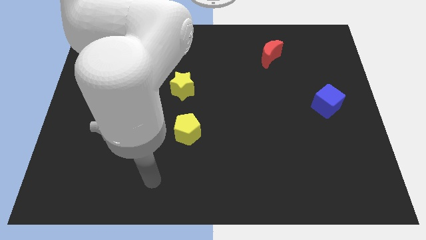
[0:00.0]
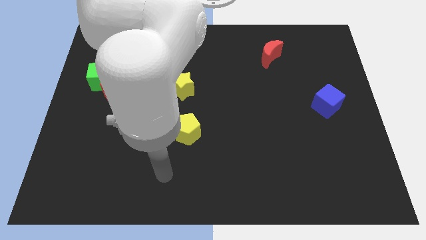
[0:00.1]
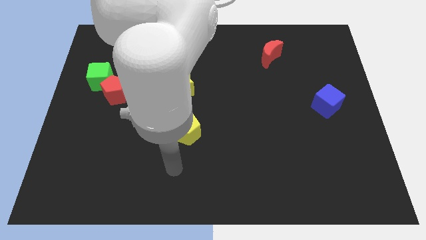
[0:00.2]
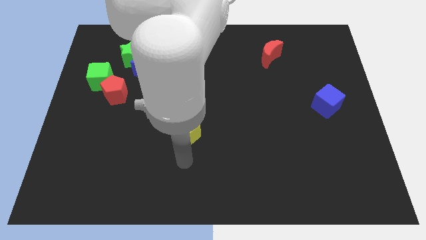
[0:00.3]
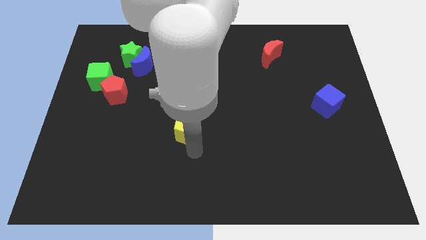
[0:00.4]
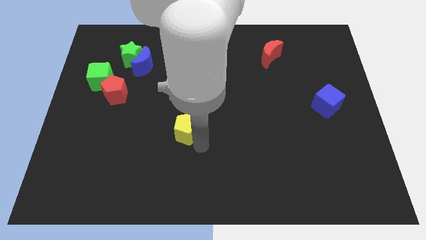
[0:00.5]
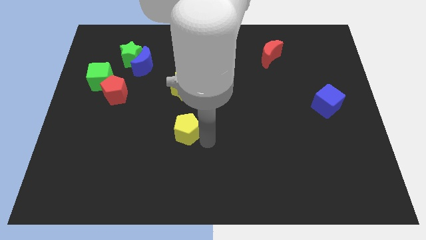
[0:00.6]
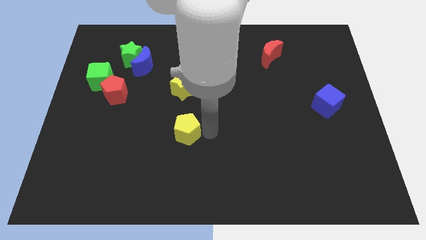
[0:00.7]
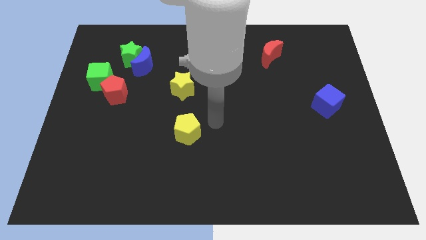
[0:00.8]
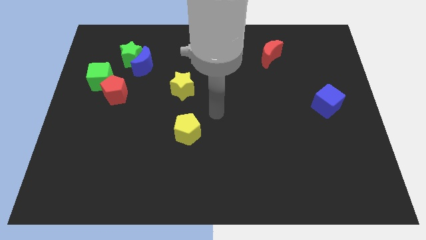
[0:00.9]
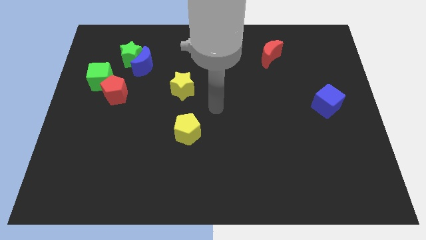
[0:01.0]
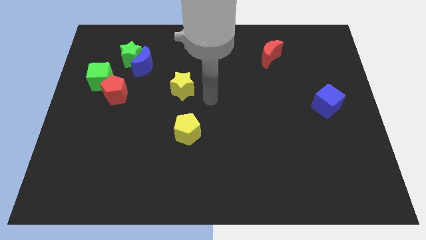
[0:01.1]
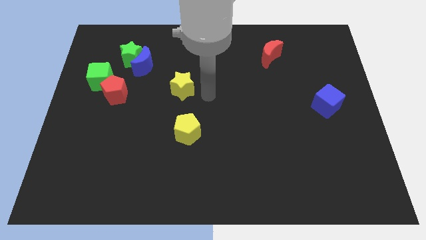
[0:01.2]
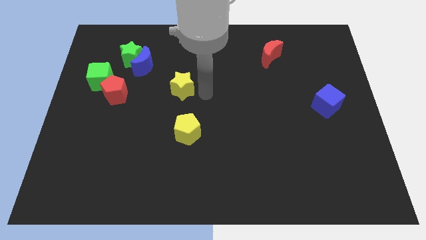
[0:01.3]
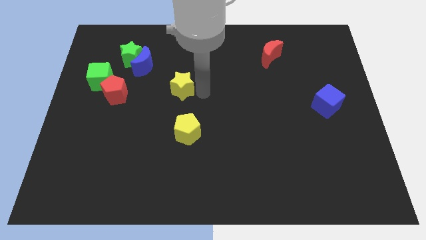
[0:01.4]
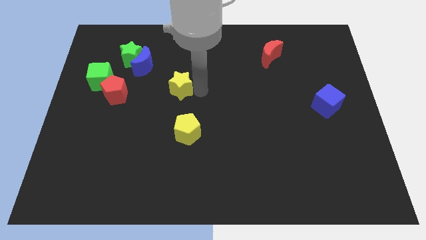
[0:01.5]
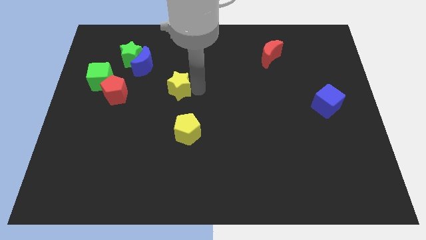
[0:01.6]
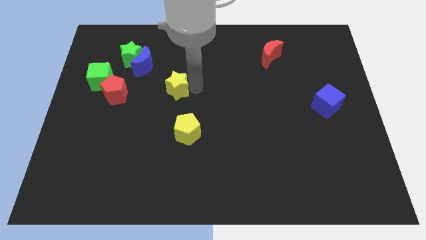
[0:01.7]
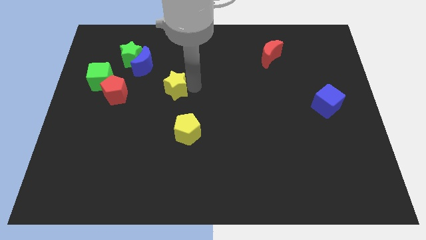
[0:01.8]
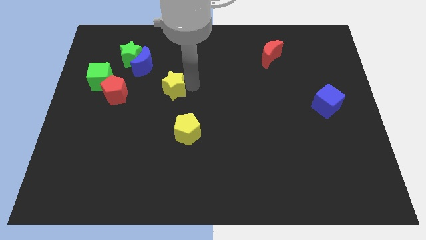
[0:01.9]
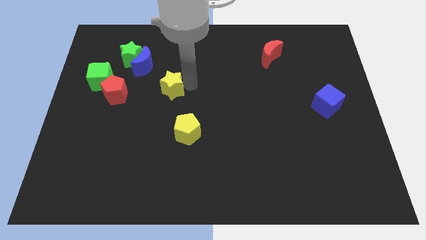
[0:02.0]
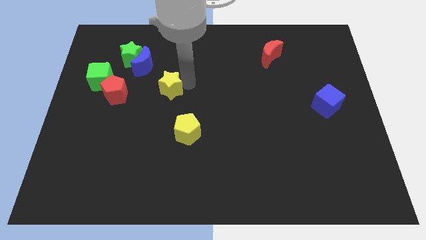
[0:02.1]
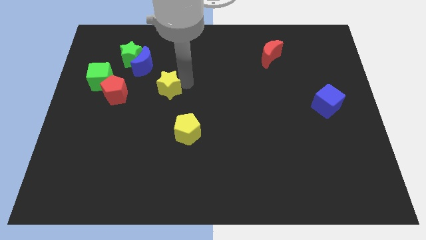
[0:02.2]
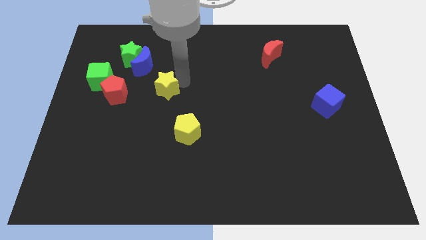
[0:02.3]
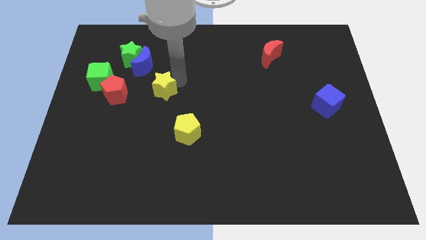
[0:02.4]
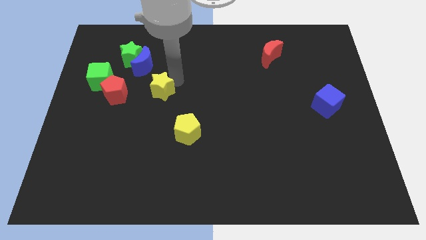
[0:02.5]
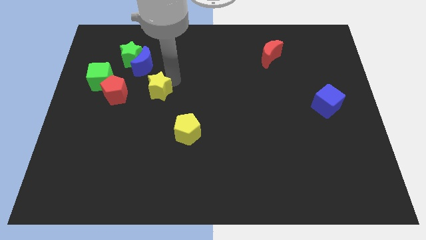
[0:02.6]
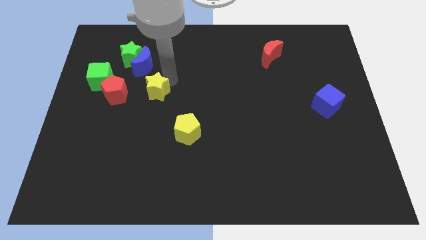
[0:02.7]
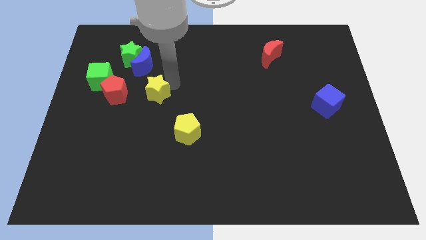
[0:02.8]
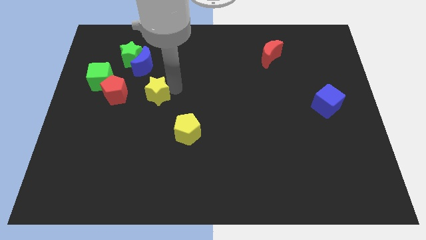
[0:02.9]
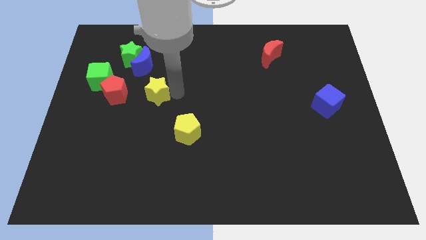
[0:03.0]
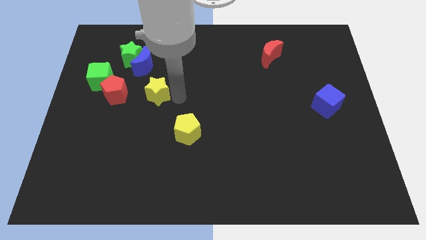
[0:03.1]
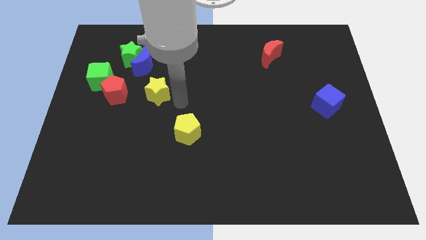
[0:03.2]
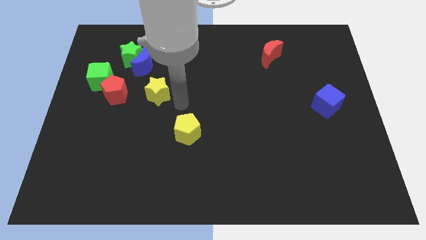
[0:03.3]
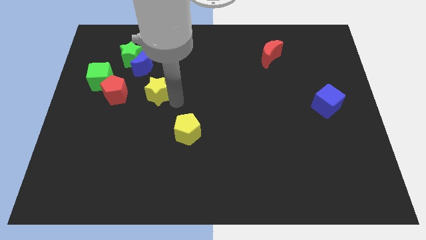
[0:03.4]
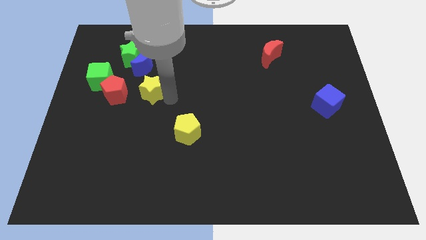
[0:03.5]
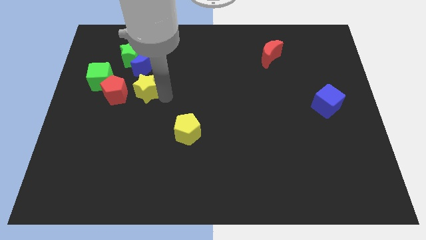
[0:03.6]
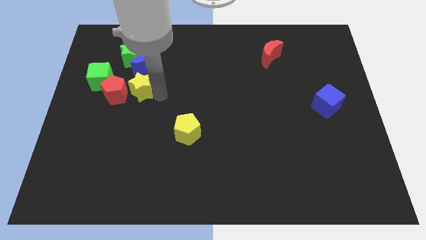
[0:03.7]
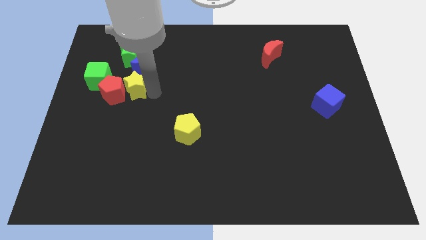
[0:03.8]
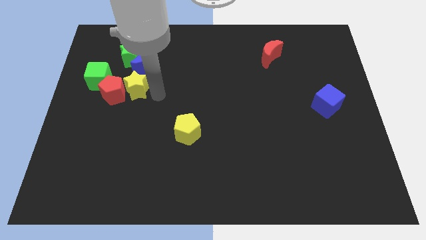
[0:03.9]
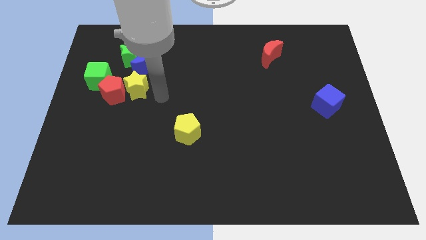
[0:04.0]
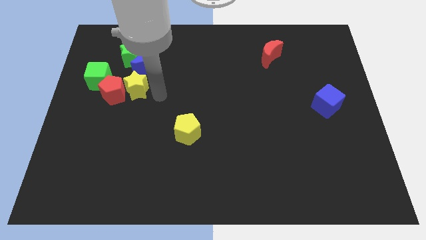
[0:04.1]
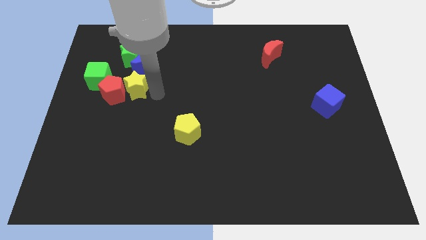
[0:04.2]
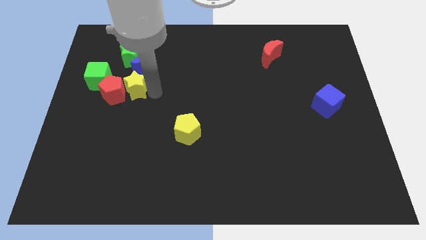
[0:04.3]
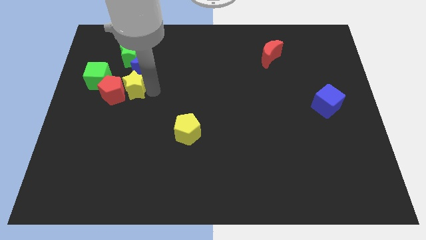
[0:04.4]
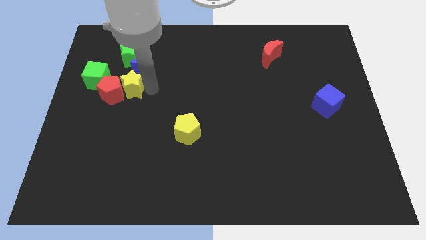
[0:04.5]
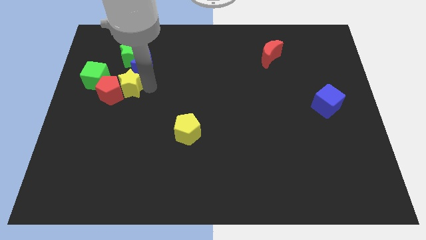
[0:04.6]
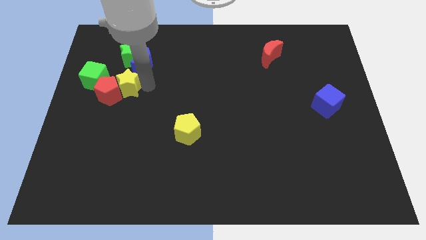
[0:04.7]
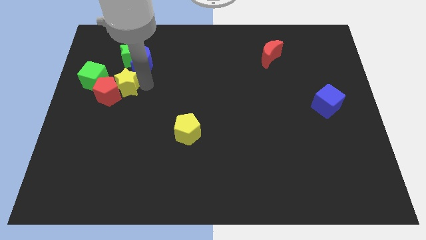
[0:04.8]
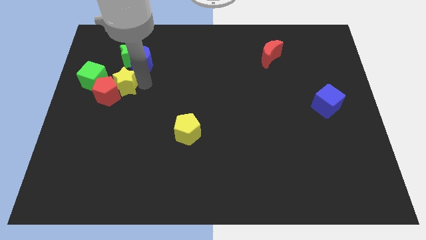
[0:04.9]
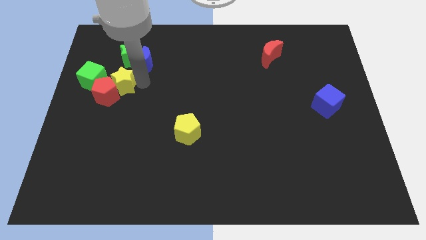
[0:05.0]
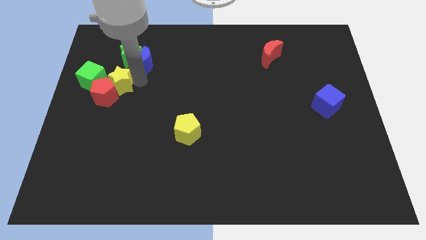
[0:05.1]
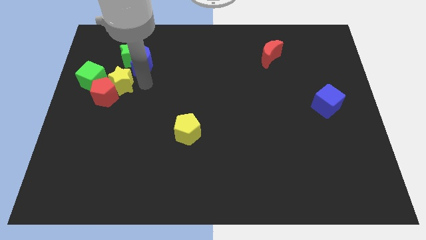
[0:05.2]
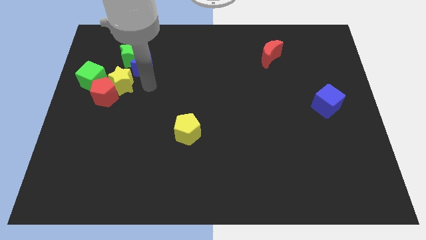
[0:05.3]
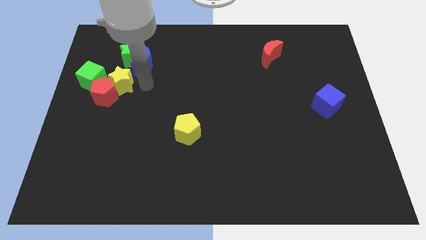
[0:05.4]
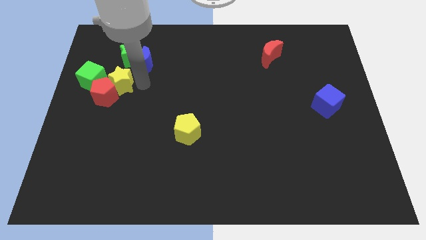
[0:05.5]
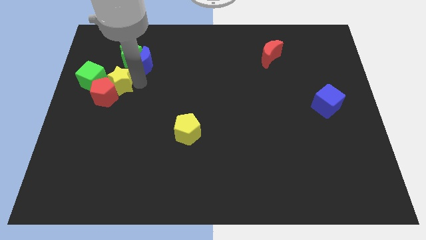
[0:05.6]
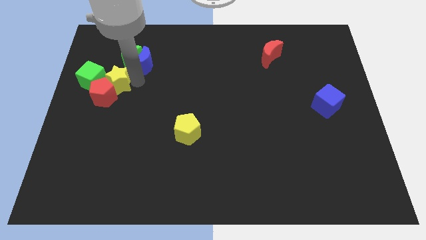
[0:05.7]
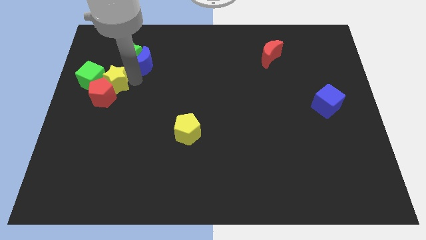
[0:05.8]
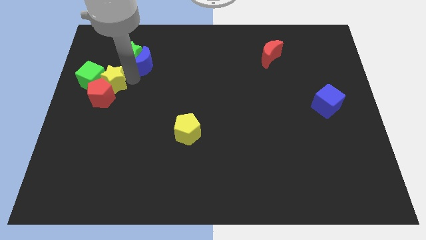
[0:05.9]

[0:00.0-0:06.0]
slide the yellow star towards the green cube

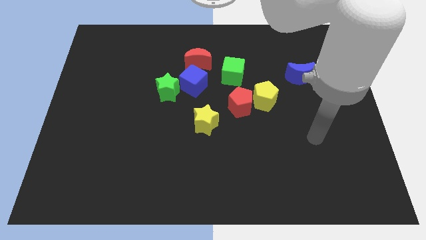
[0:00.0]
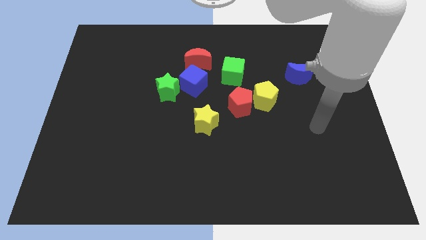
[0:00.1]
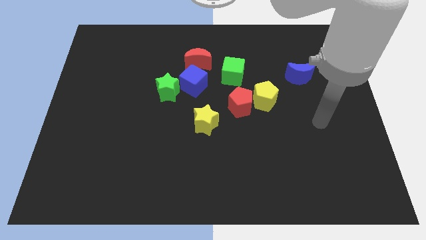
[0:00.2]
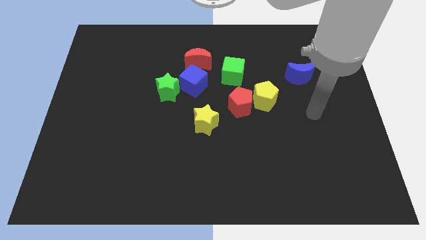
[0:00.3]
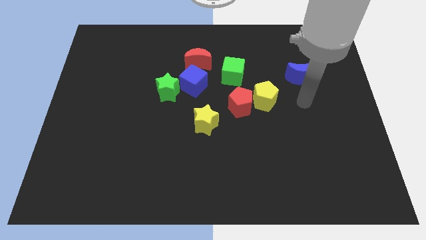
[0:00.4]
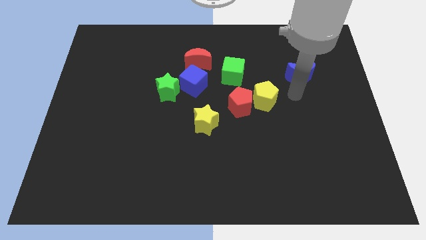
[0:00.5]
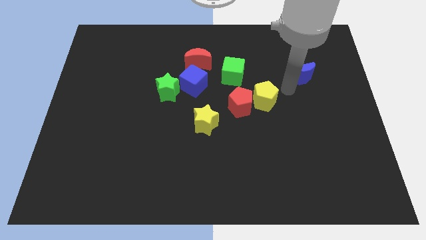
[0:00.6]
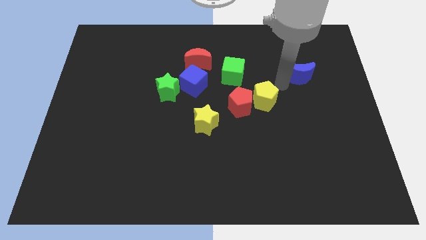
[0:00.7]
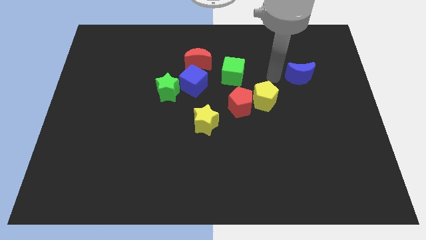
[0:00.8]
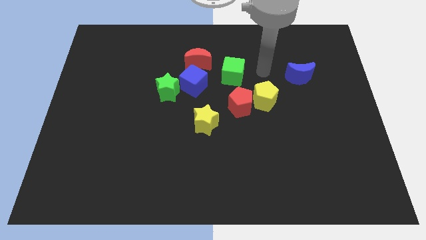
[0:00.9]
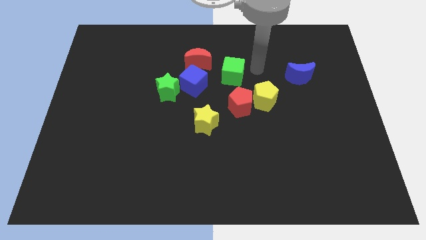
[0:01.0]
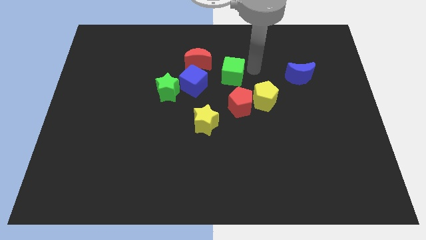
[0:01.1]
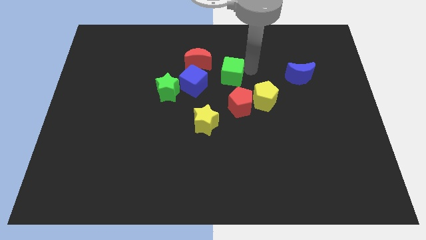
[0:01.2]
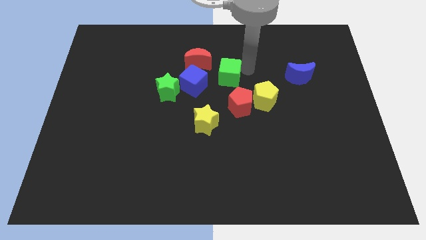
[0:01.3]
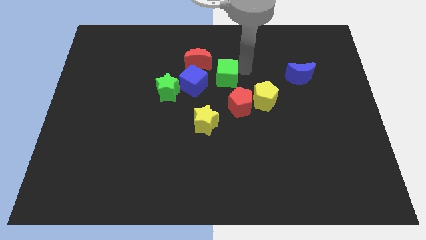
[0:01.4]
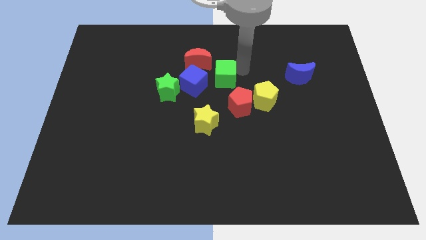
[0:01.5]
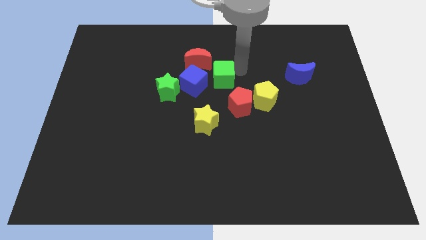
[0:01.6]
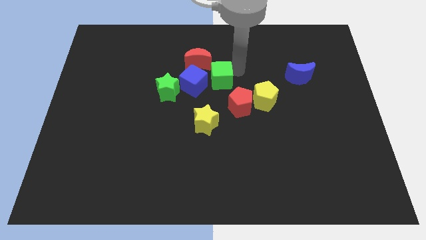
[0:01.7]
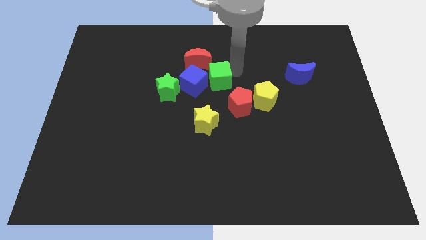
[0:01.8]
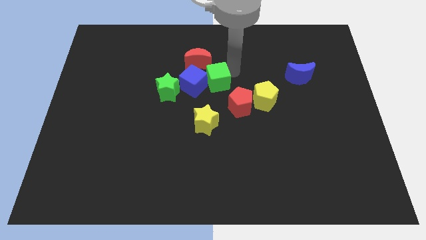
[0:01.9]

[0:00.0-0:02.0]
put the green cube towards the blue cube
